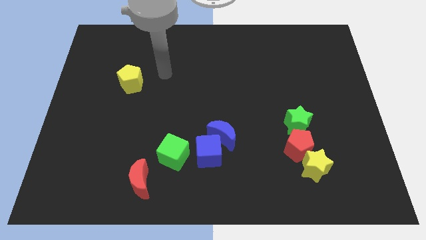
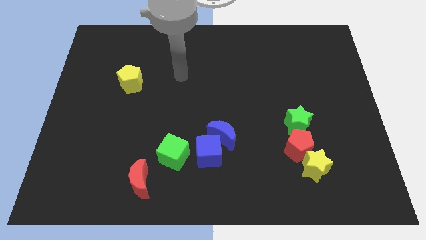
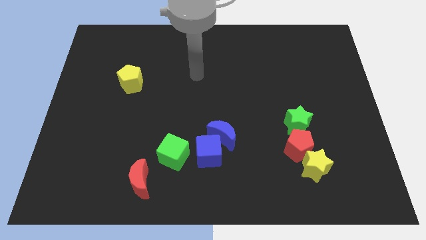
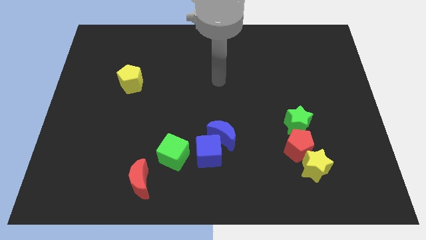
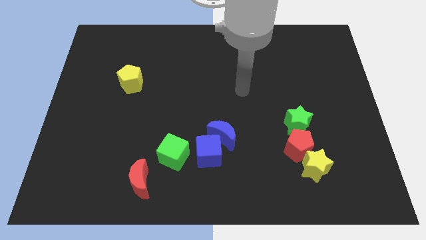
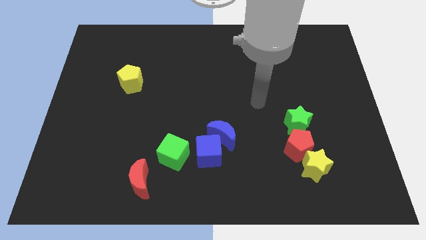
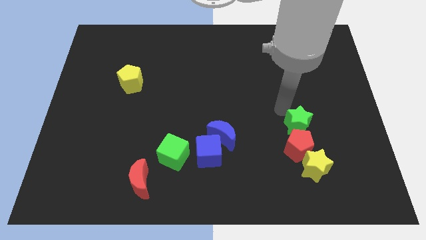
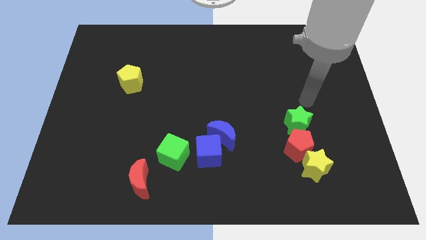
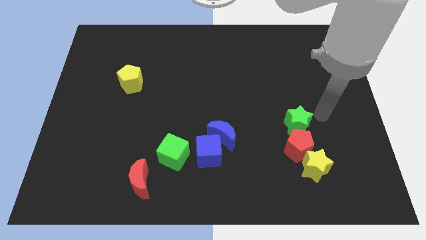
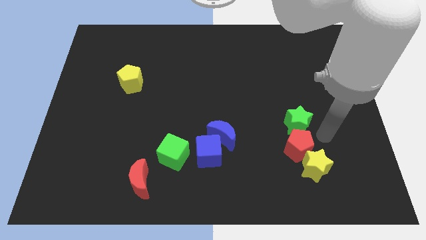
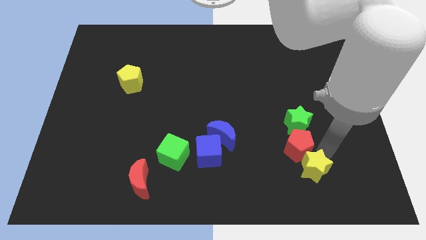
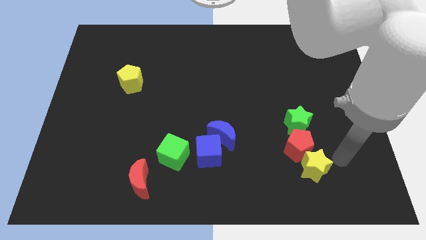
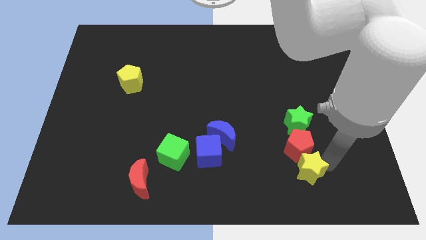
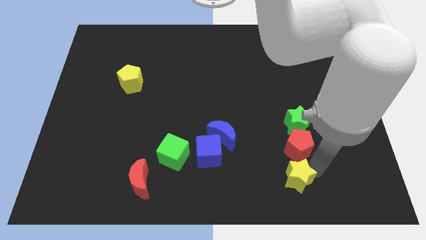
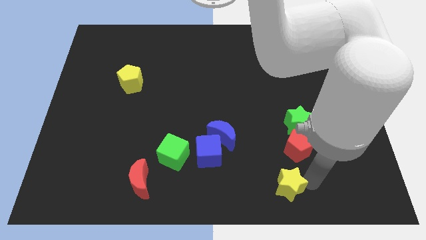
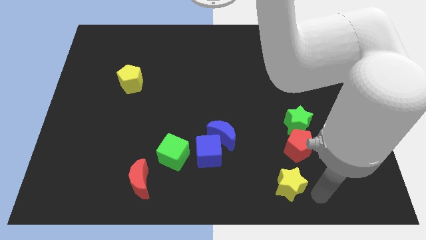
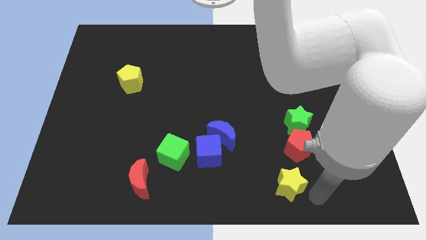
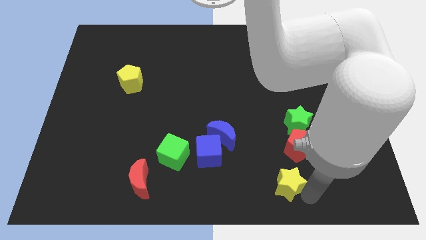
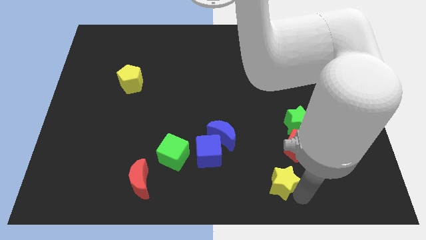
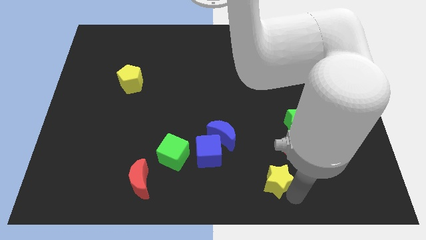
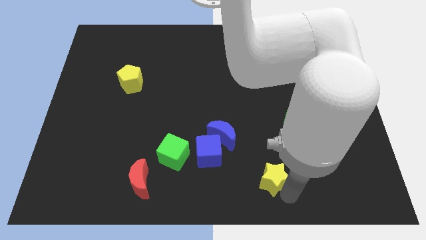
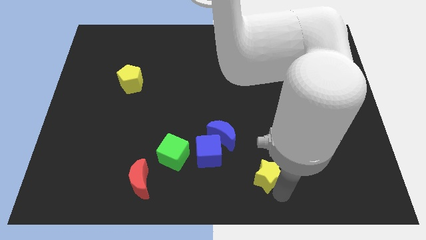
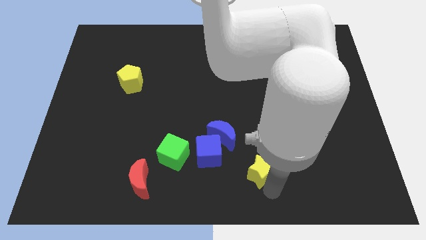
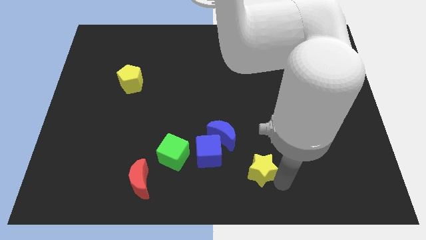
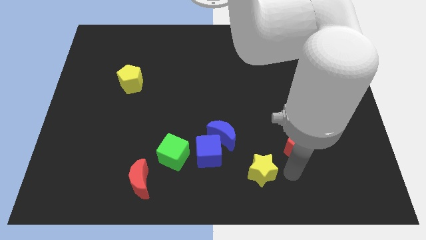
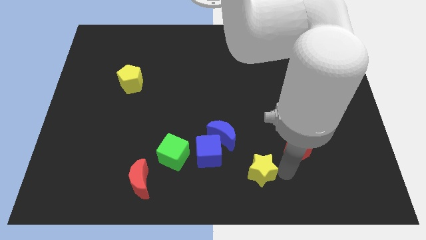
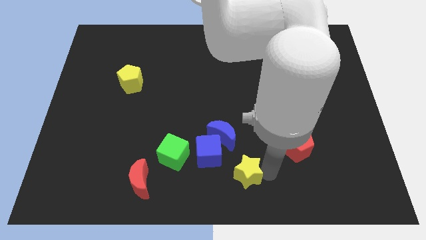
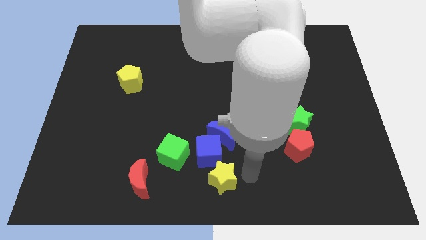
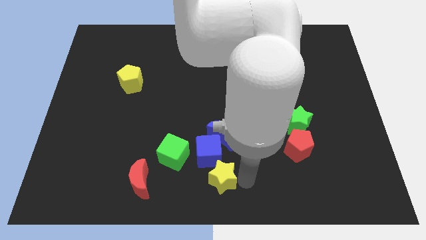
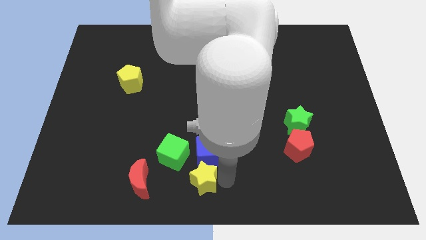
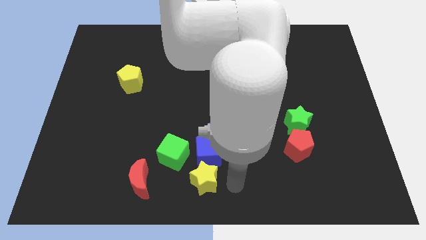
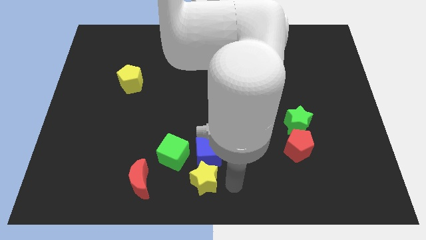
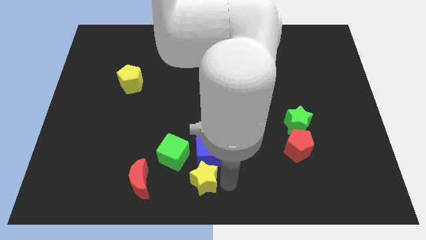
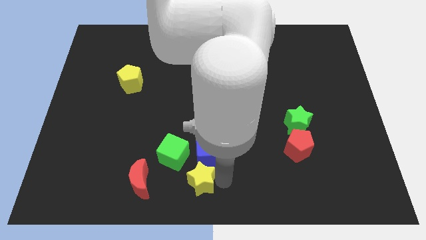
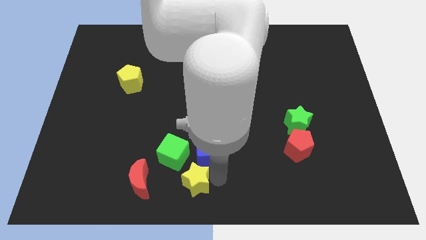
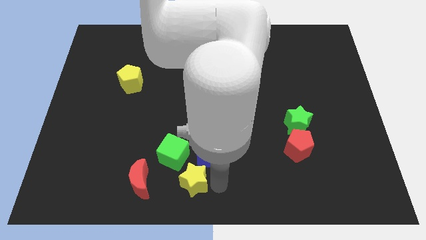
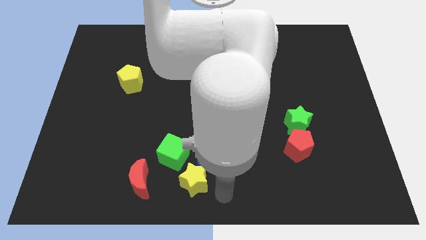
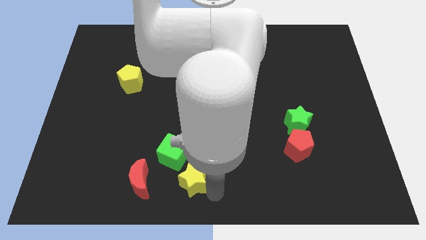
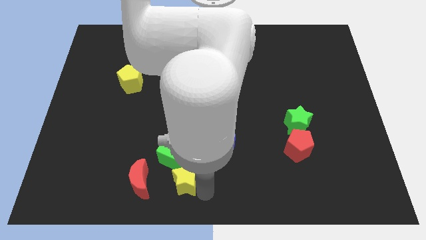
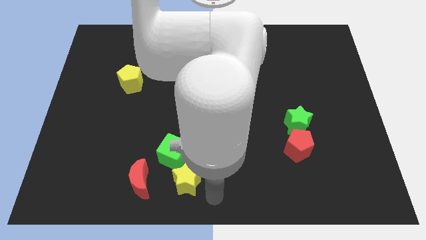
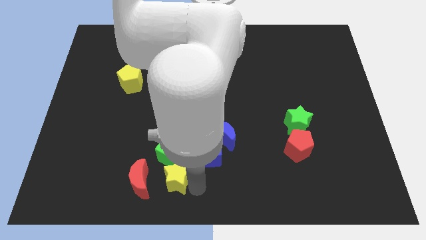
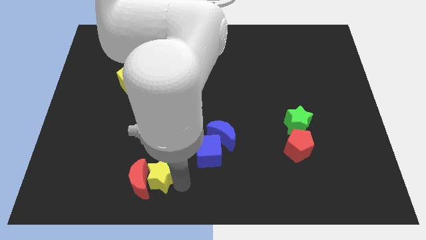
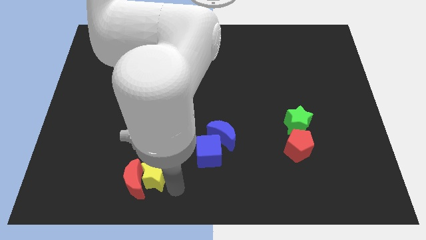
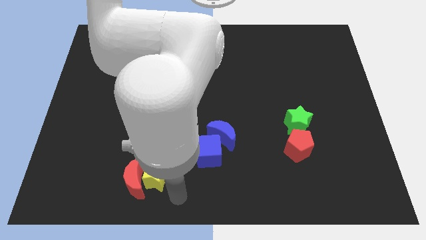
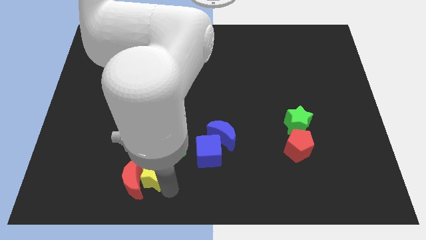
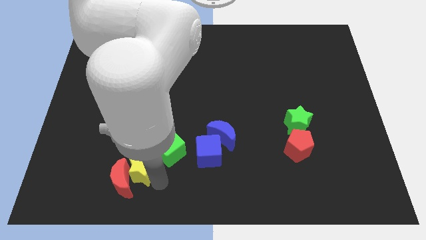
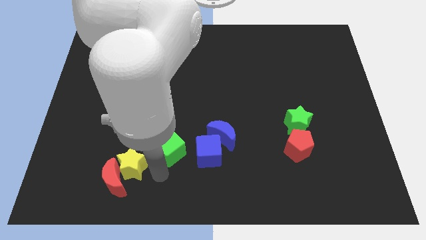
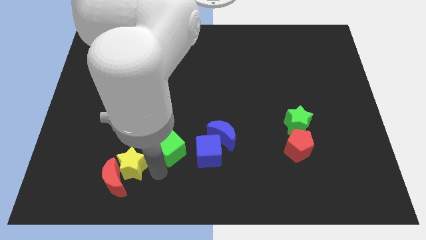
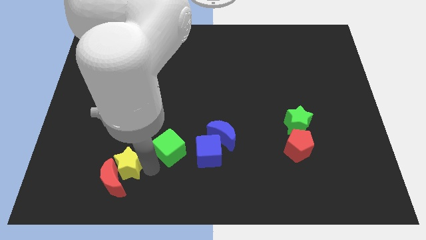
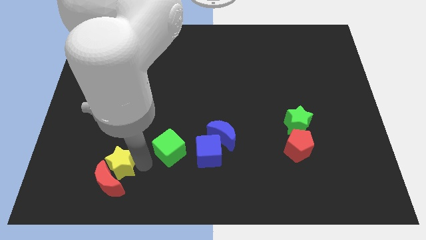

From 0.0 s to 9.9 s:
push the yellow star to the top left side of the red moon

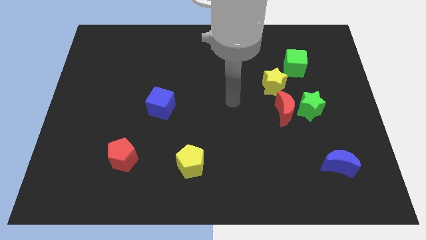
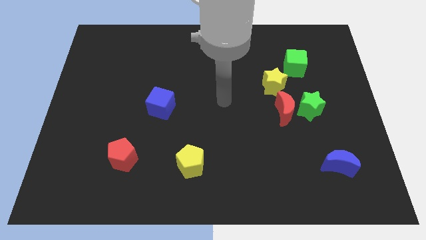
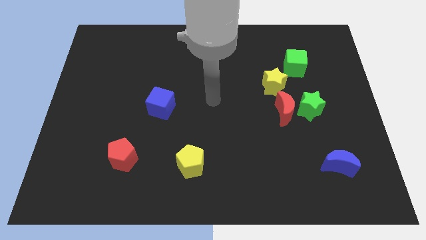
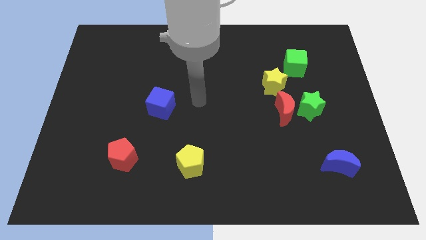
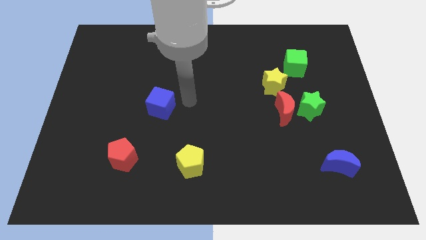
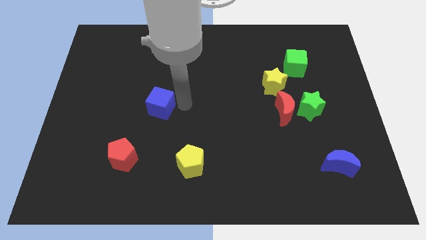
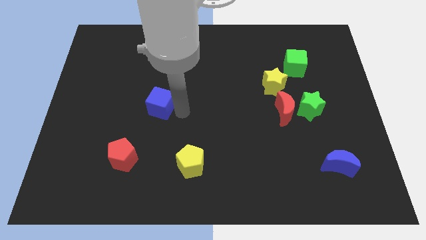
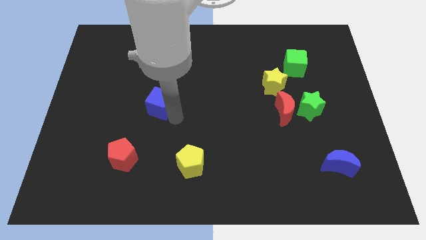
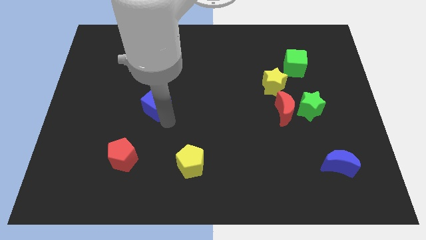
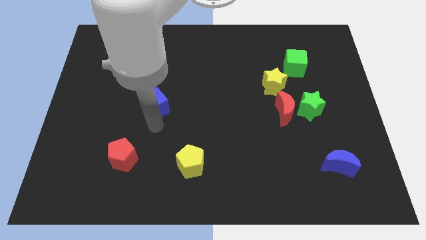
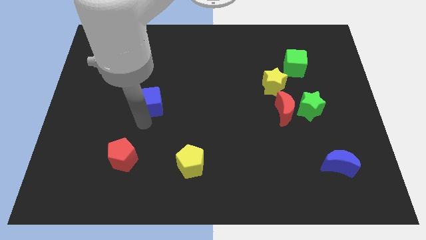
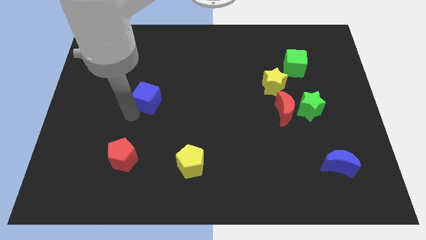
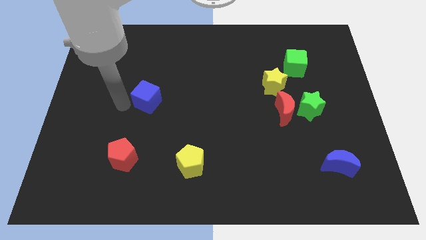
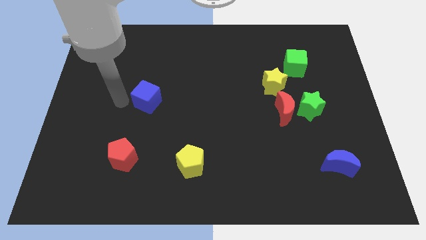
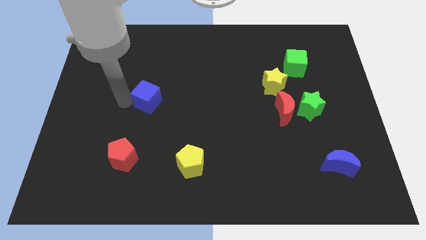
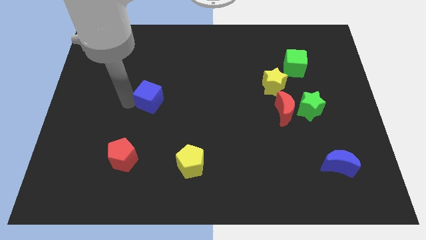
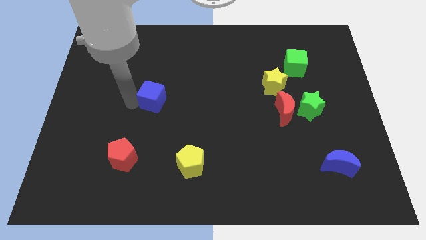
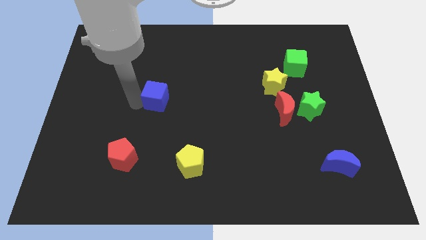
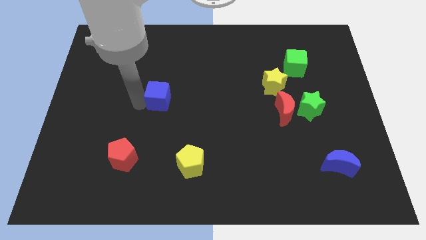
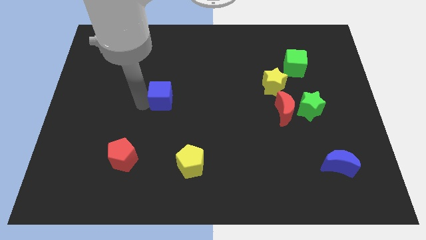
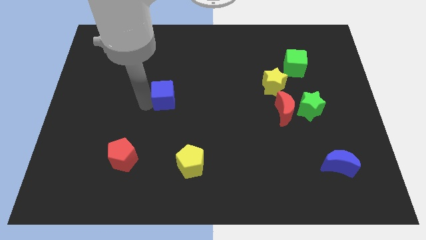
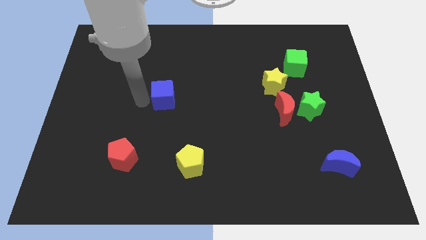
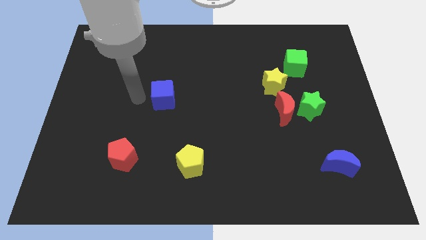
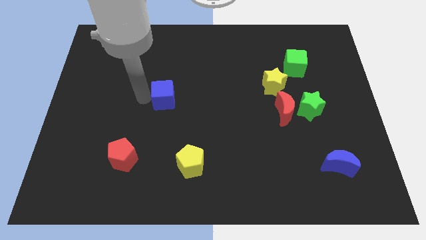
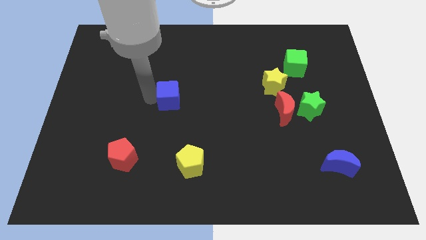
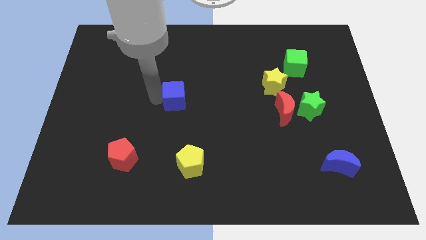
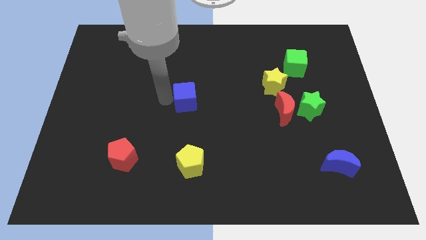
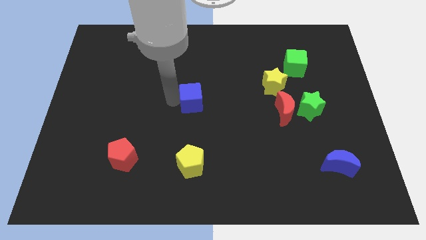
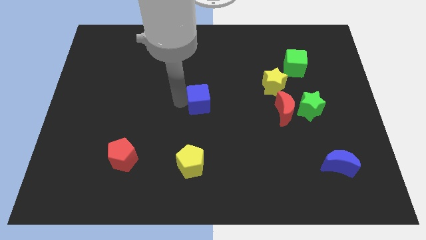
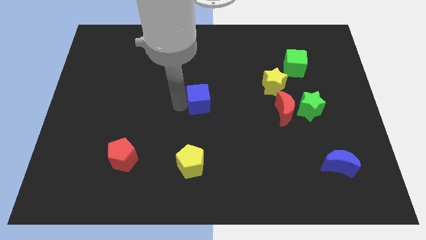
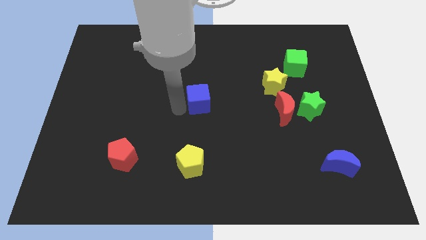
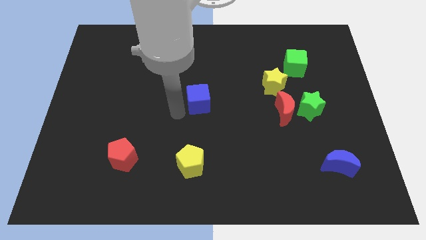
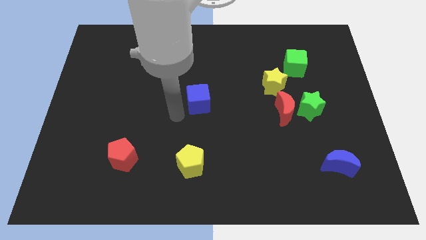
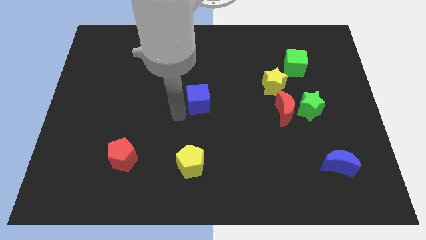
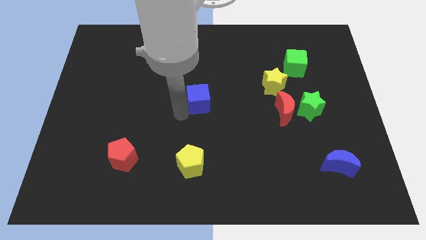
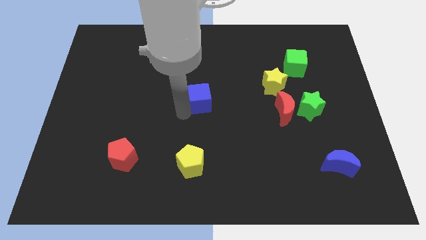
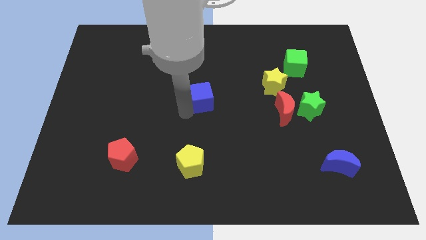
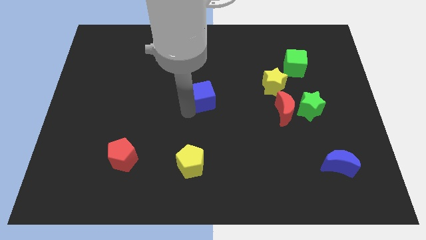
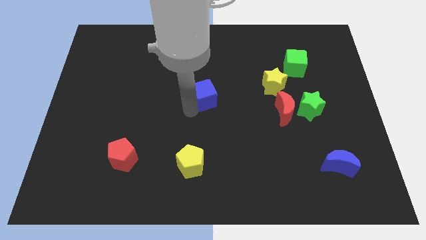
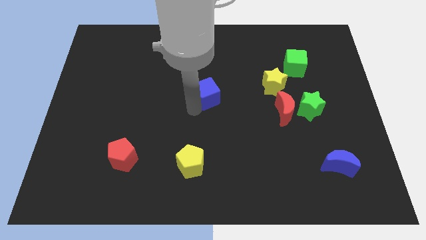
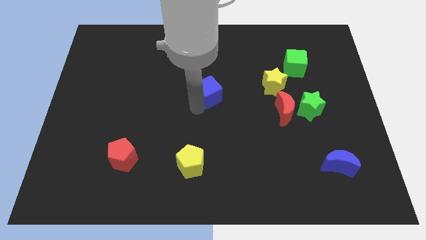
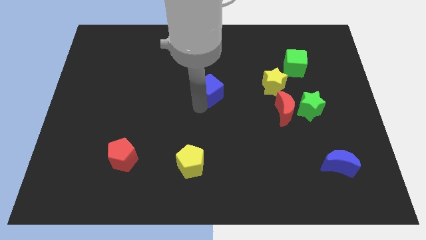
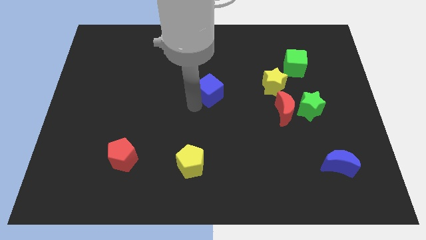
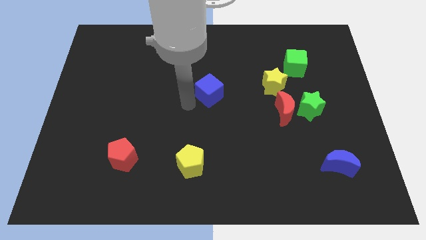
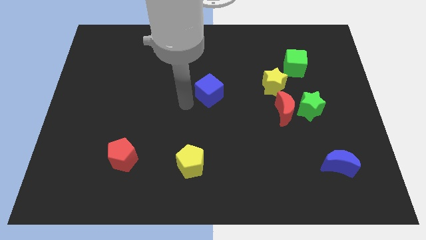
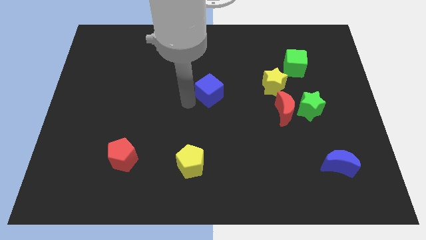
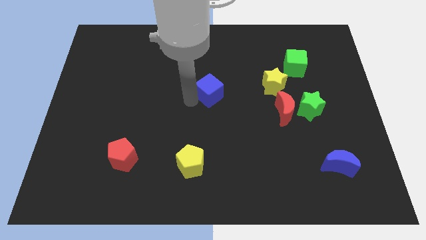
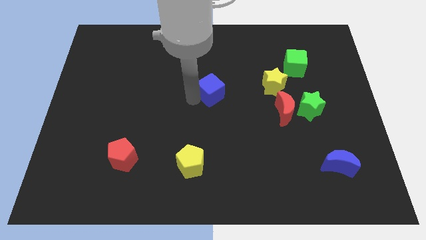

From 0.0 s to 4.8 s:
slide the blue cube to the left side of the yellow star
